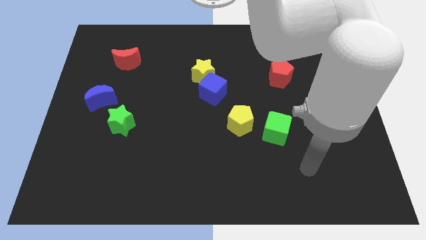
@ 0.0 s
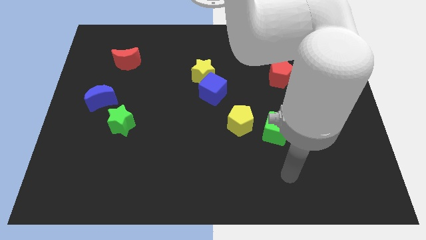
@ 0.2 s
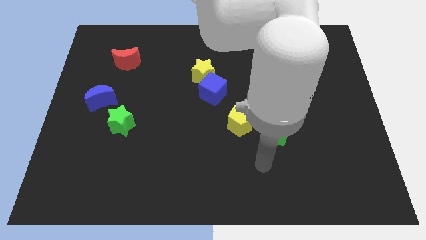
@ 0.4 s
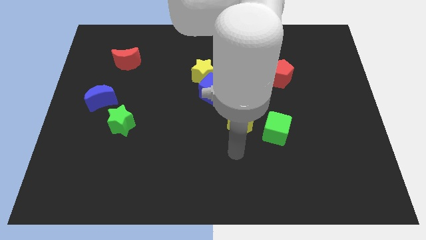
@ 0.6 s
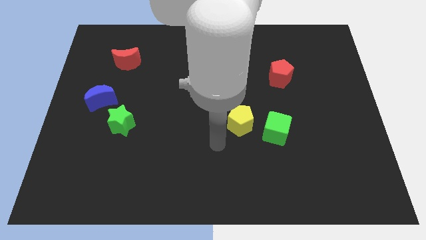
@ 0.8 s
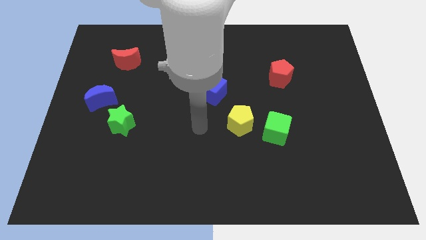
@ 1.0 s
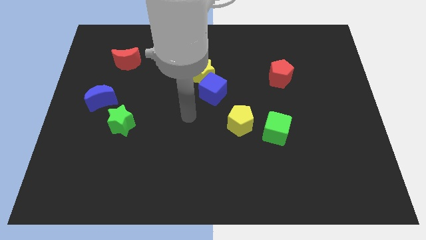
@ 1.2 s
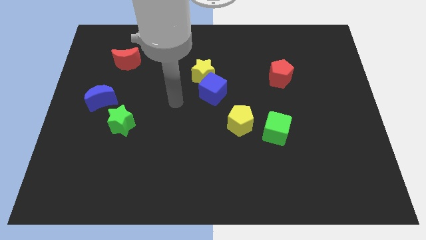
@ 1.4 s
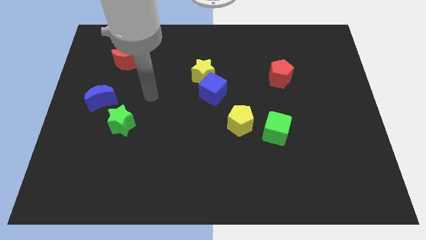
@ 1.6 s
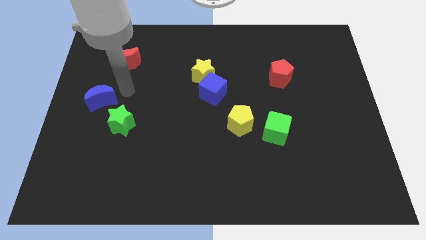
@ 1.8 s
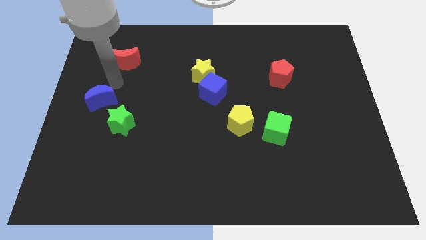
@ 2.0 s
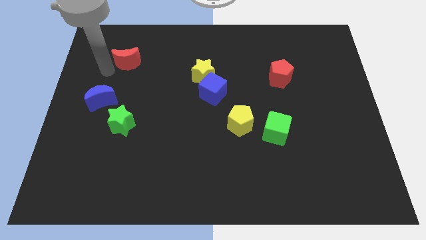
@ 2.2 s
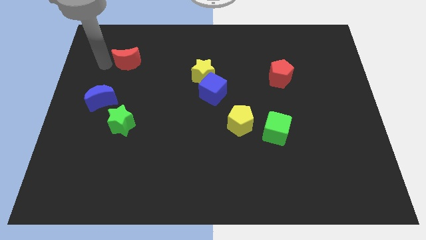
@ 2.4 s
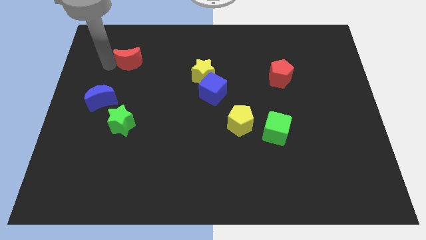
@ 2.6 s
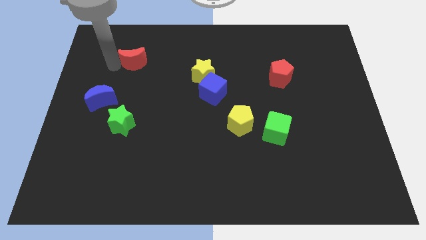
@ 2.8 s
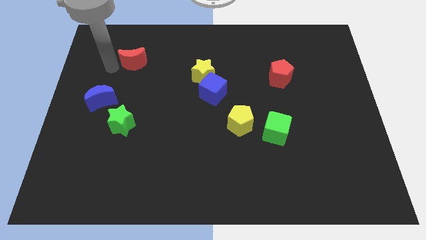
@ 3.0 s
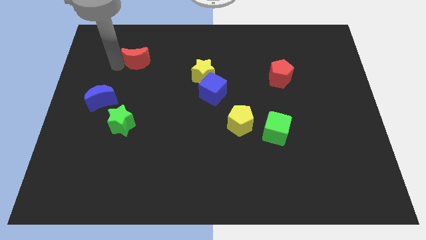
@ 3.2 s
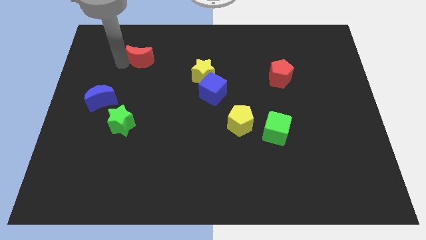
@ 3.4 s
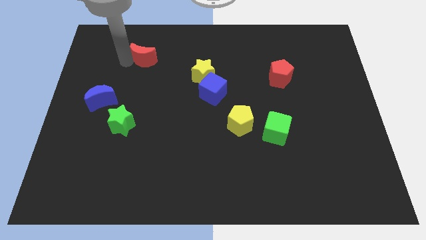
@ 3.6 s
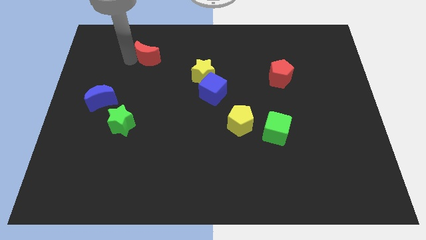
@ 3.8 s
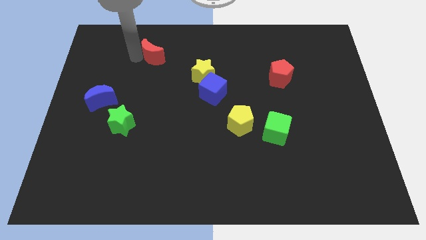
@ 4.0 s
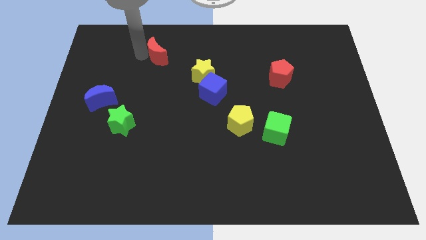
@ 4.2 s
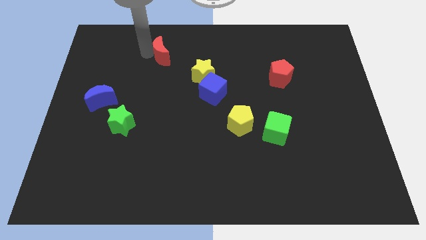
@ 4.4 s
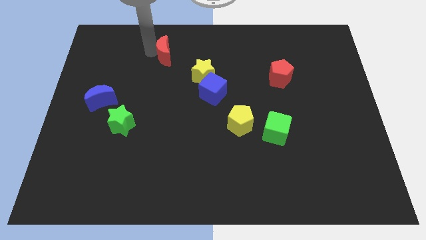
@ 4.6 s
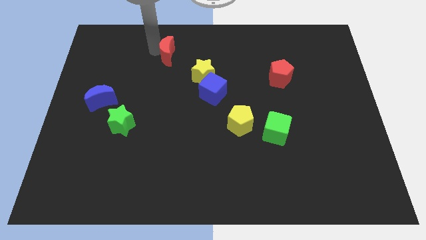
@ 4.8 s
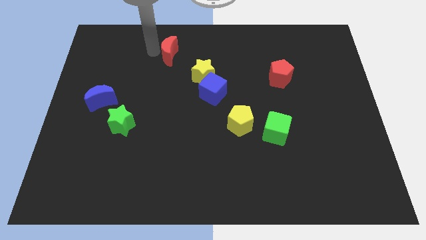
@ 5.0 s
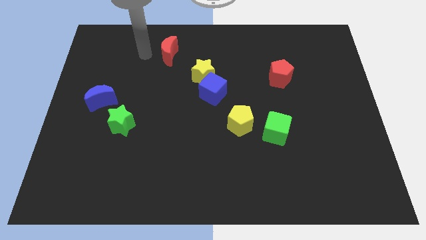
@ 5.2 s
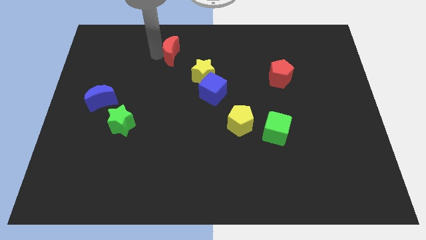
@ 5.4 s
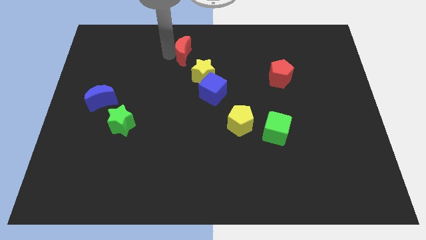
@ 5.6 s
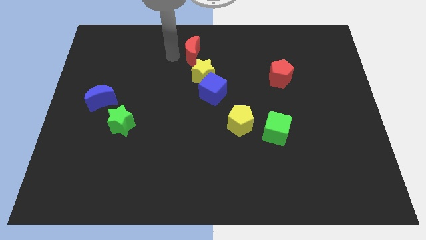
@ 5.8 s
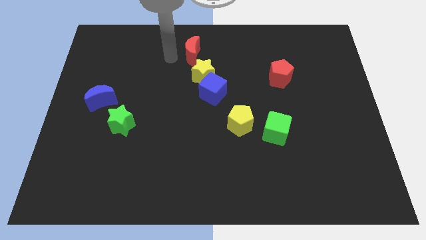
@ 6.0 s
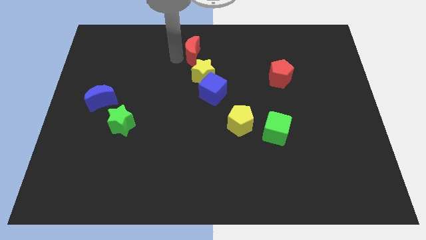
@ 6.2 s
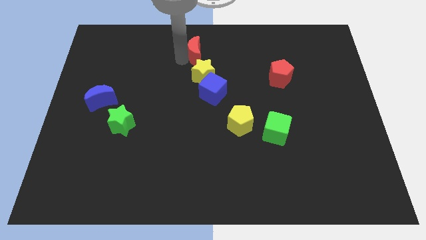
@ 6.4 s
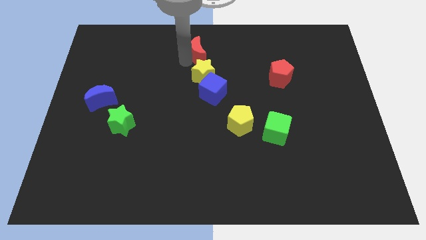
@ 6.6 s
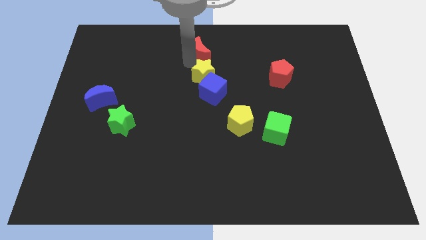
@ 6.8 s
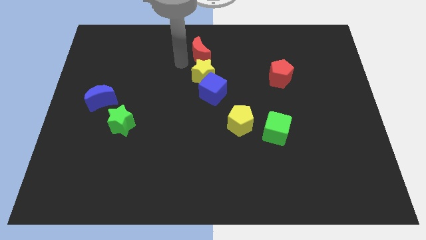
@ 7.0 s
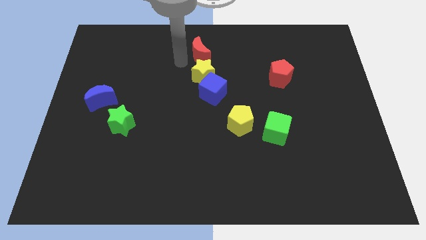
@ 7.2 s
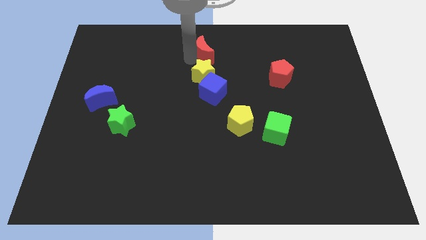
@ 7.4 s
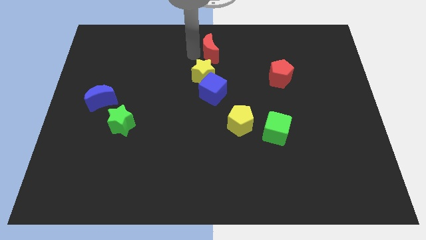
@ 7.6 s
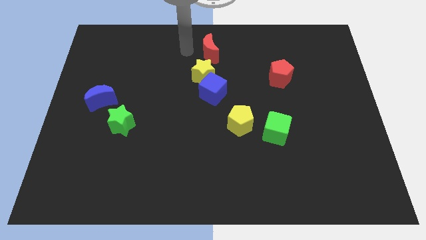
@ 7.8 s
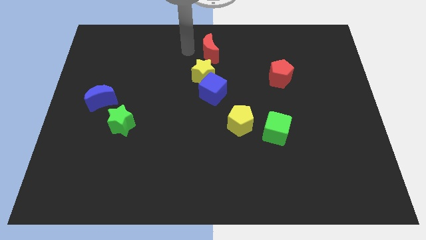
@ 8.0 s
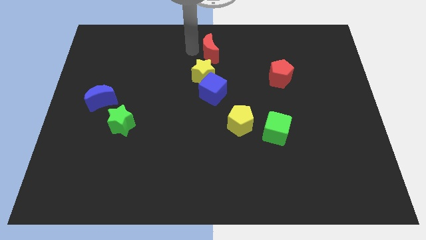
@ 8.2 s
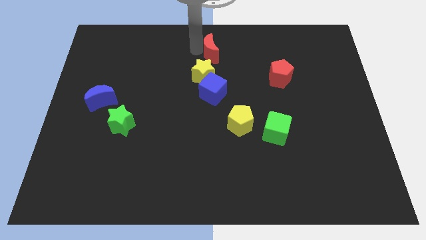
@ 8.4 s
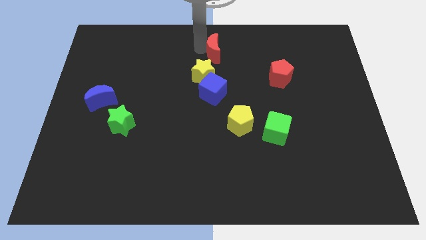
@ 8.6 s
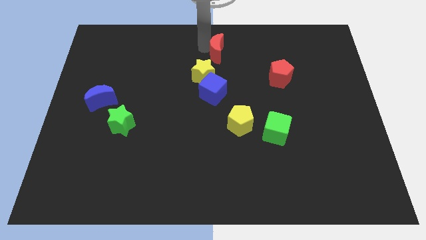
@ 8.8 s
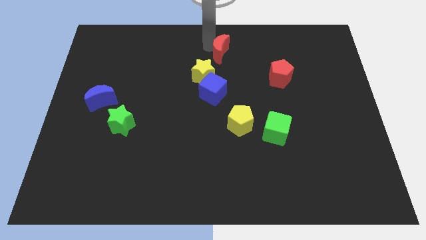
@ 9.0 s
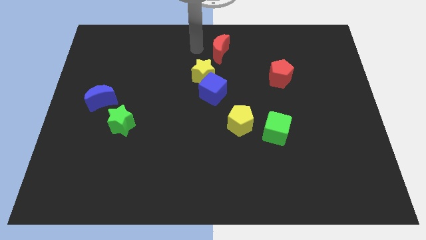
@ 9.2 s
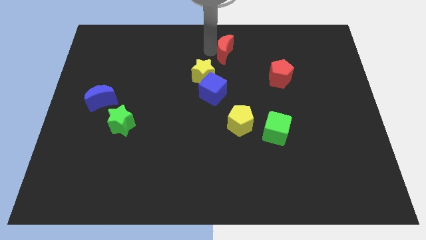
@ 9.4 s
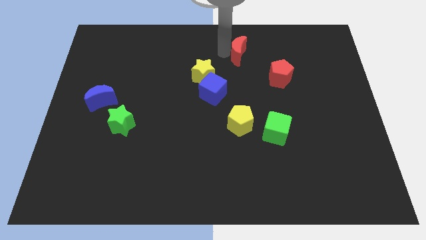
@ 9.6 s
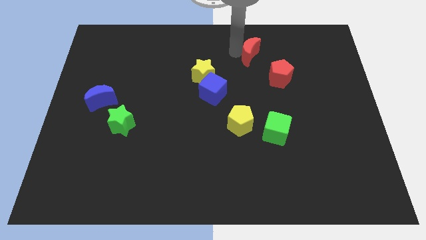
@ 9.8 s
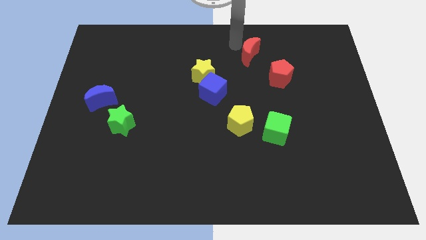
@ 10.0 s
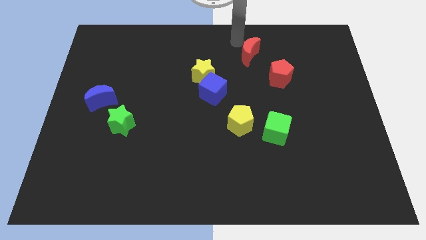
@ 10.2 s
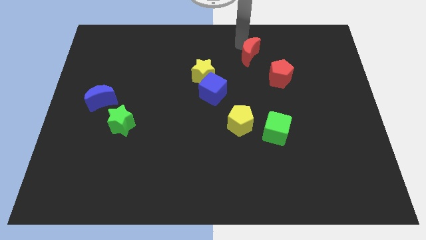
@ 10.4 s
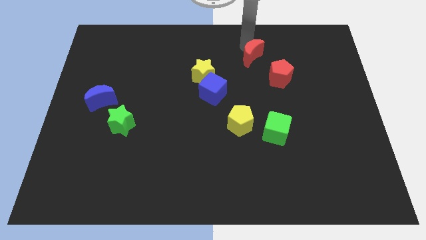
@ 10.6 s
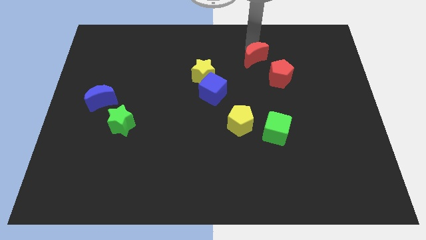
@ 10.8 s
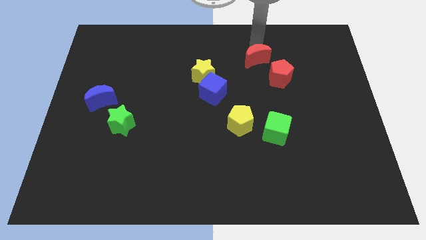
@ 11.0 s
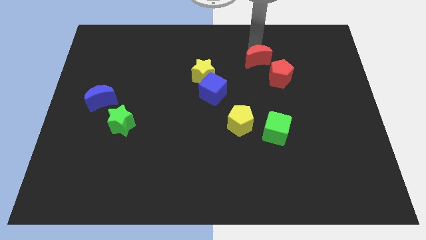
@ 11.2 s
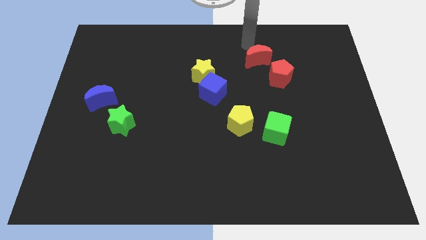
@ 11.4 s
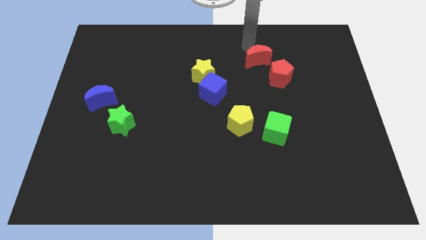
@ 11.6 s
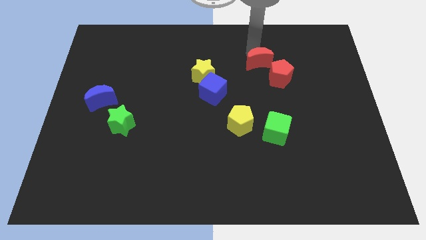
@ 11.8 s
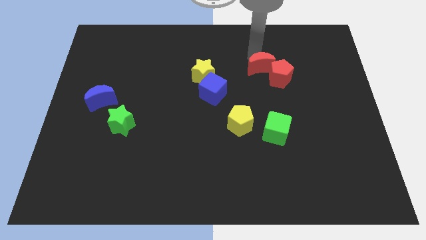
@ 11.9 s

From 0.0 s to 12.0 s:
put the red moon towards the red pentagon

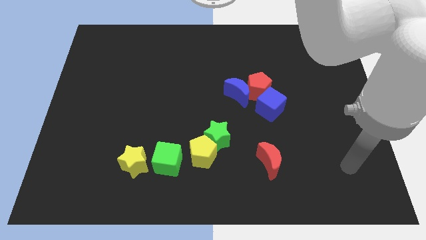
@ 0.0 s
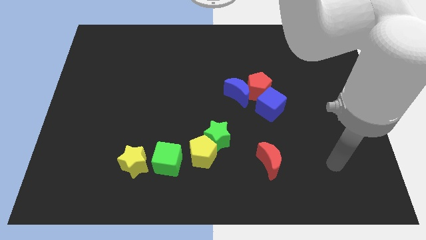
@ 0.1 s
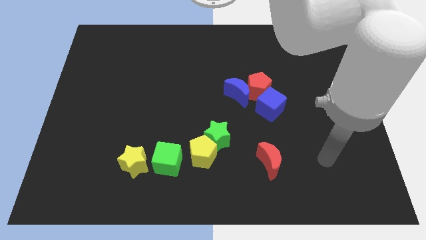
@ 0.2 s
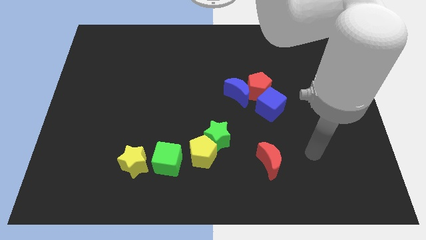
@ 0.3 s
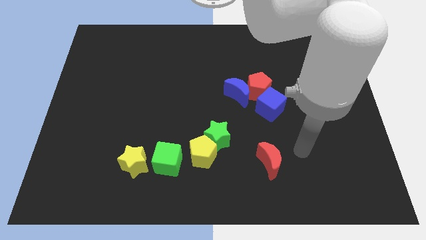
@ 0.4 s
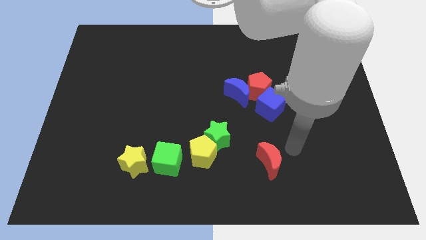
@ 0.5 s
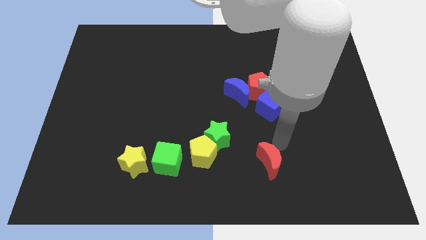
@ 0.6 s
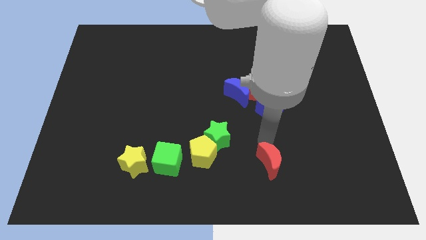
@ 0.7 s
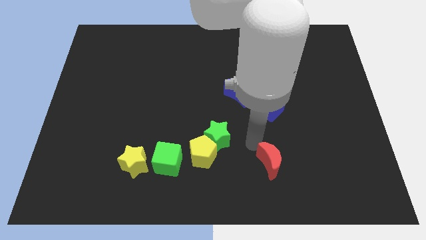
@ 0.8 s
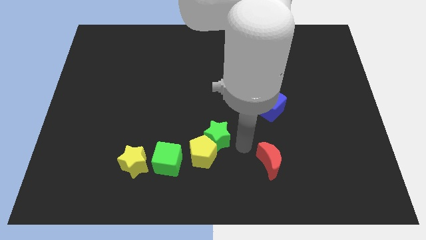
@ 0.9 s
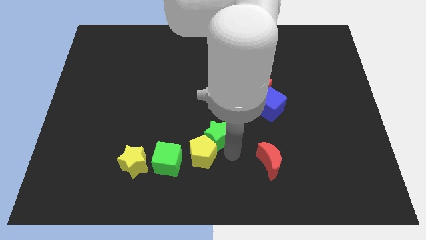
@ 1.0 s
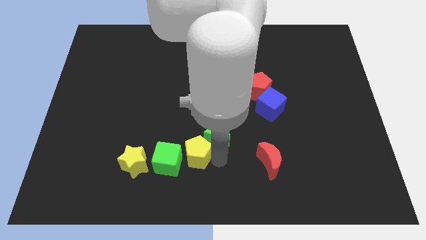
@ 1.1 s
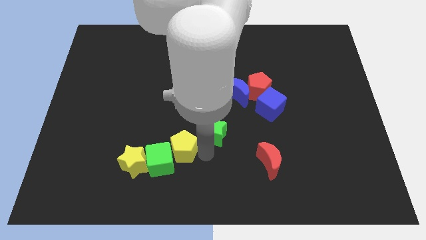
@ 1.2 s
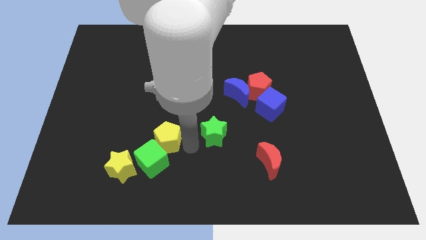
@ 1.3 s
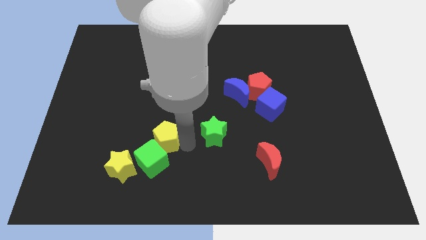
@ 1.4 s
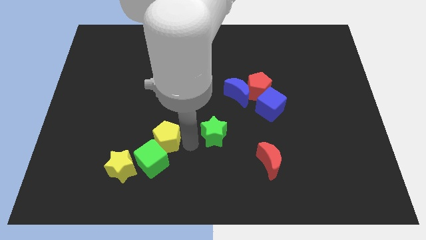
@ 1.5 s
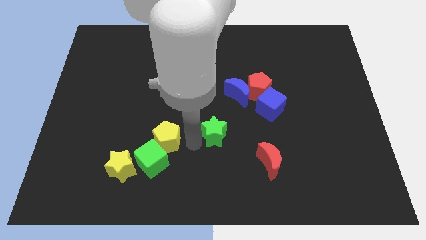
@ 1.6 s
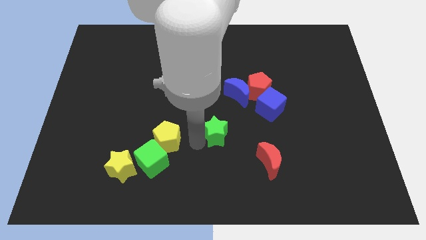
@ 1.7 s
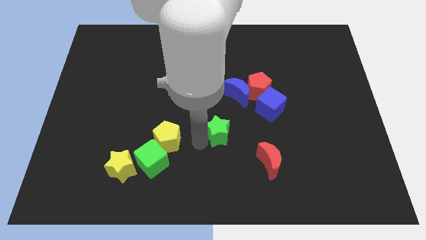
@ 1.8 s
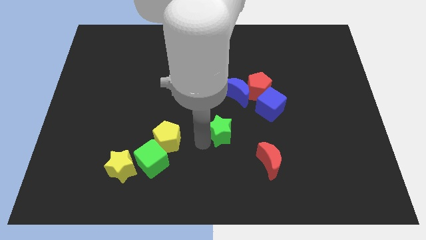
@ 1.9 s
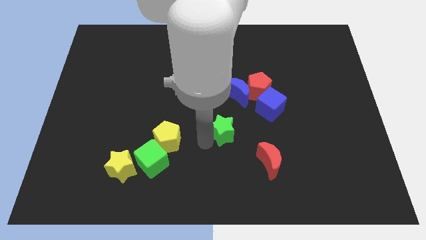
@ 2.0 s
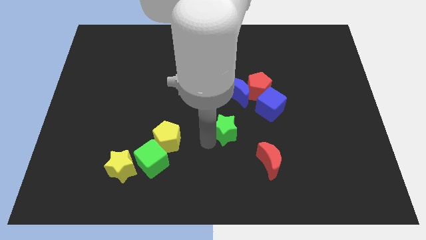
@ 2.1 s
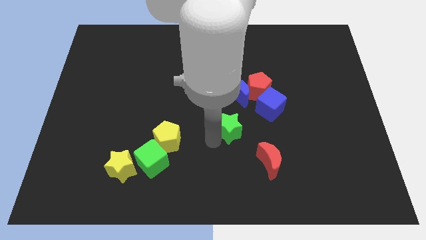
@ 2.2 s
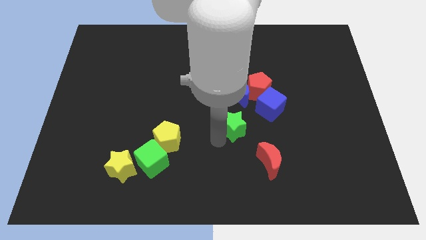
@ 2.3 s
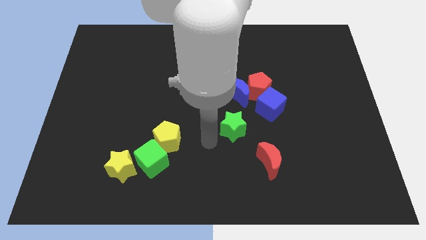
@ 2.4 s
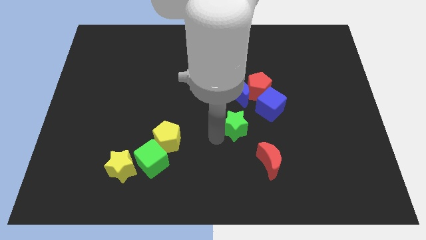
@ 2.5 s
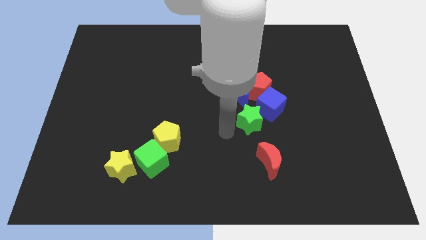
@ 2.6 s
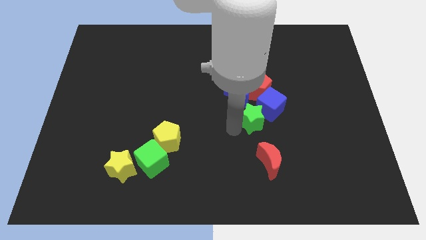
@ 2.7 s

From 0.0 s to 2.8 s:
put the green star close to the blue cube
